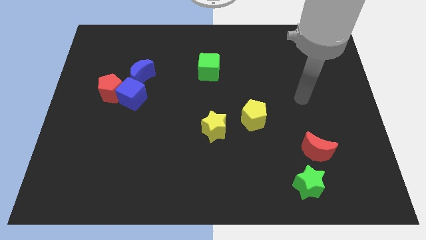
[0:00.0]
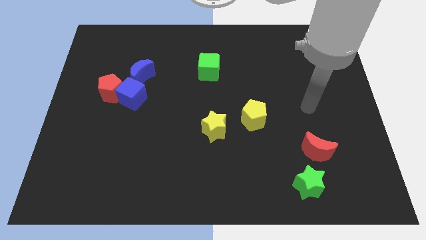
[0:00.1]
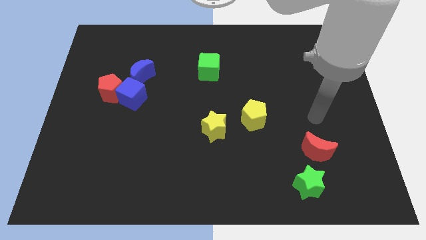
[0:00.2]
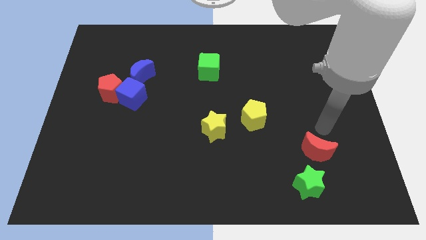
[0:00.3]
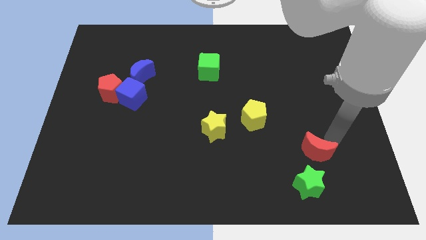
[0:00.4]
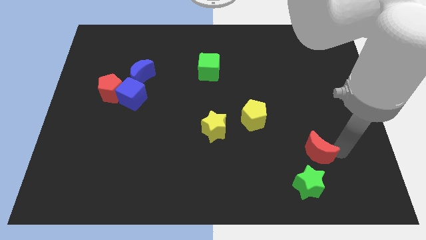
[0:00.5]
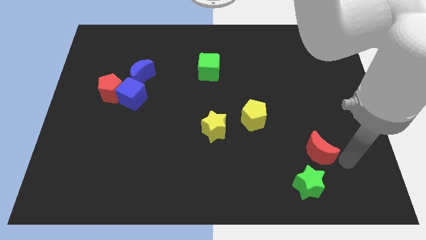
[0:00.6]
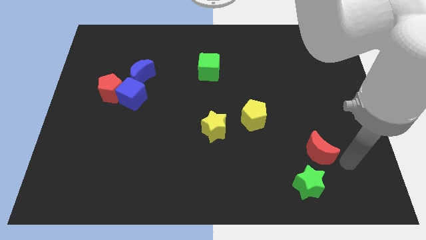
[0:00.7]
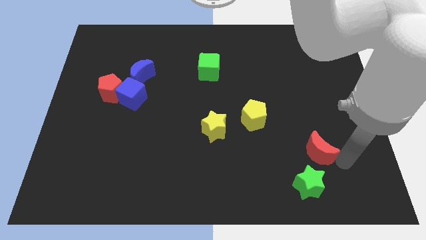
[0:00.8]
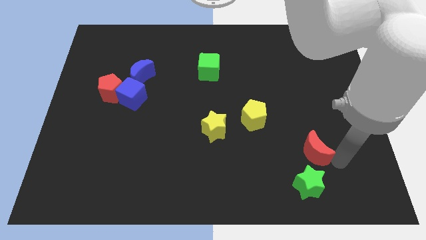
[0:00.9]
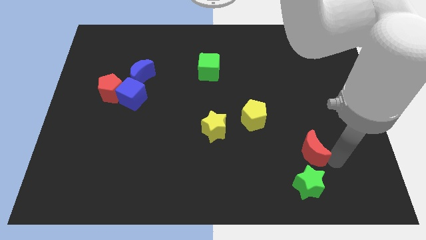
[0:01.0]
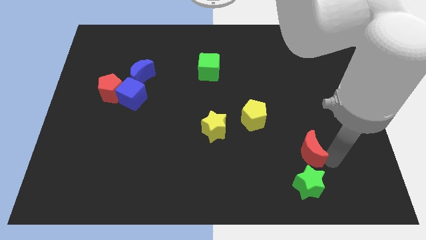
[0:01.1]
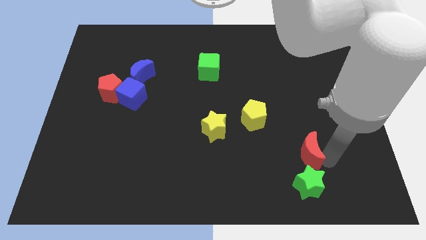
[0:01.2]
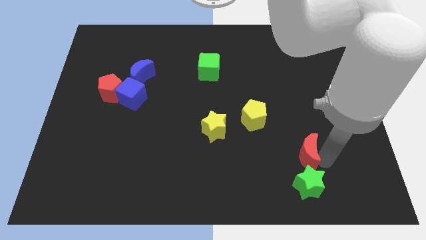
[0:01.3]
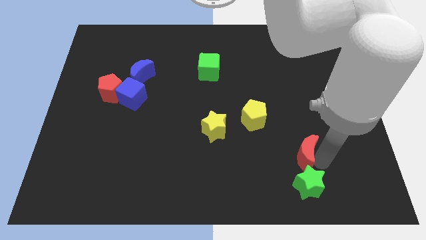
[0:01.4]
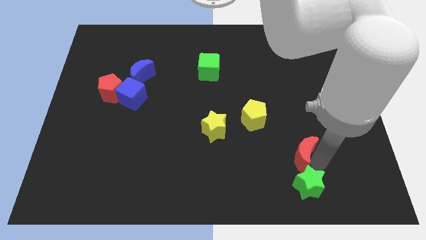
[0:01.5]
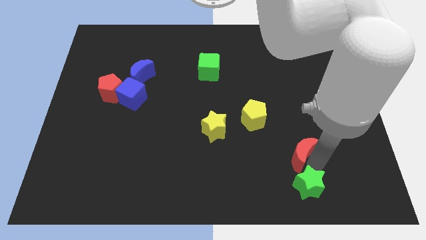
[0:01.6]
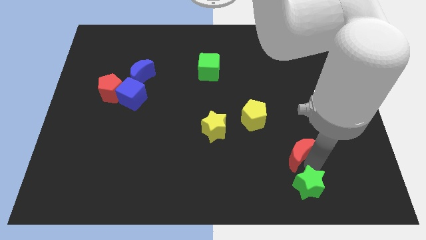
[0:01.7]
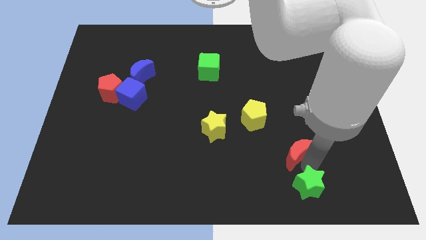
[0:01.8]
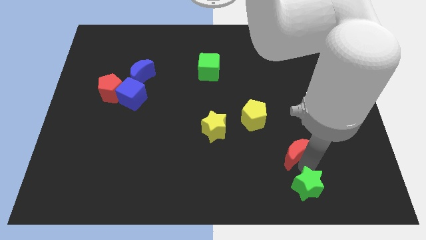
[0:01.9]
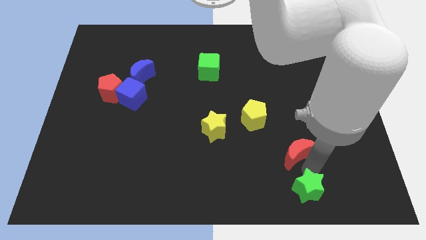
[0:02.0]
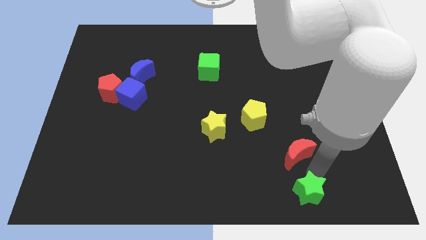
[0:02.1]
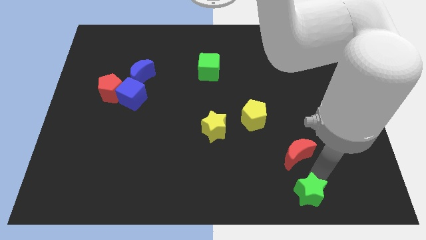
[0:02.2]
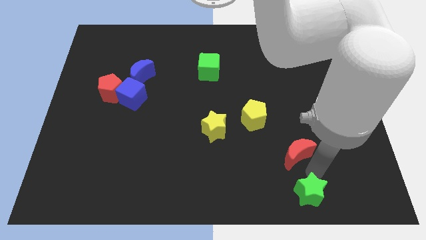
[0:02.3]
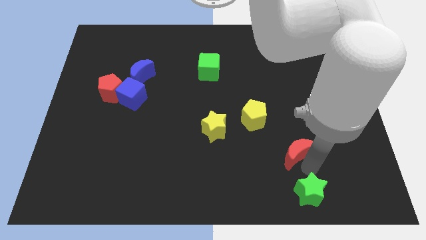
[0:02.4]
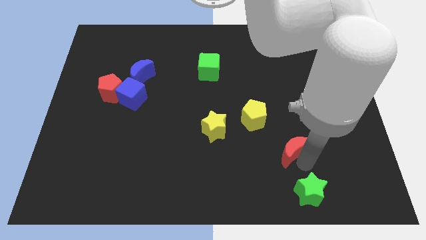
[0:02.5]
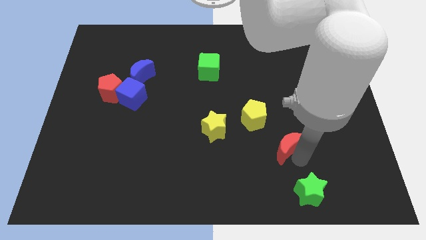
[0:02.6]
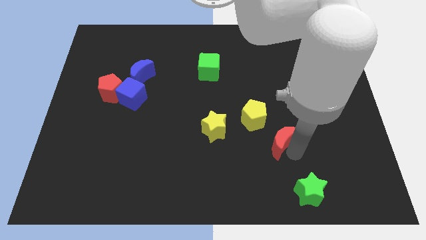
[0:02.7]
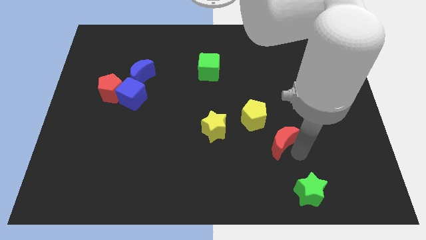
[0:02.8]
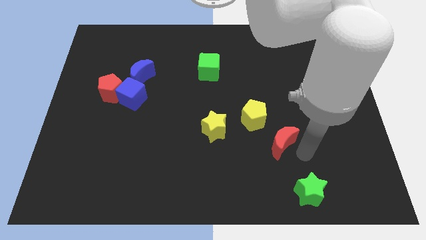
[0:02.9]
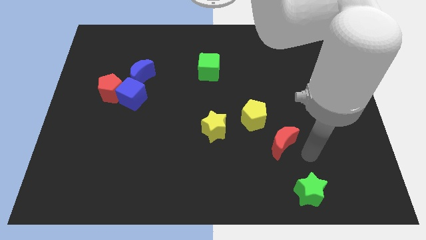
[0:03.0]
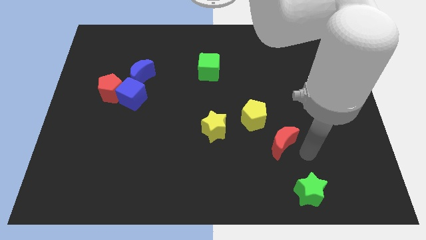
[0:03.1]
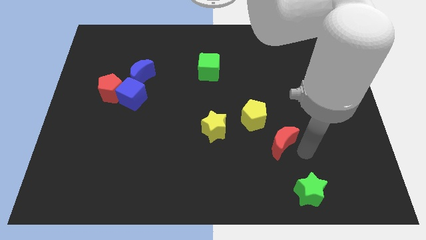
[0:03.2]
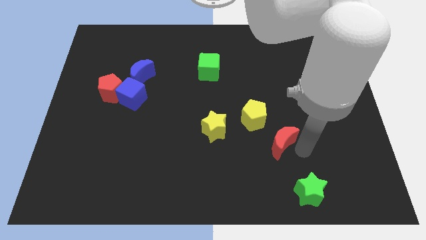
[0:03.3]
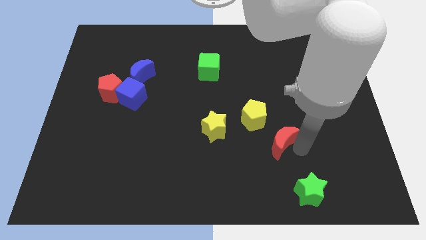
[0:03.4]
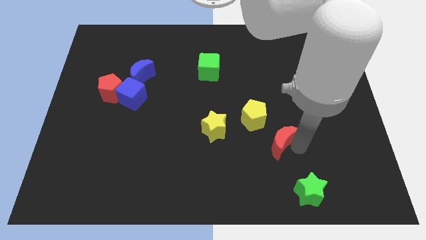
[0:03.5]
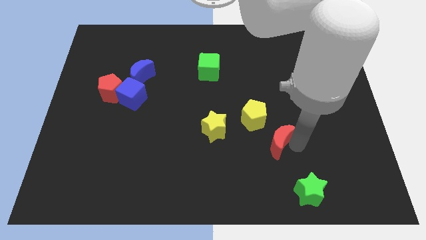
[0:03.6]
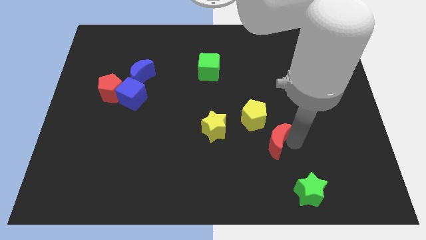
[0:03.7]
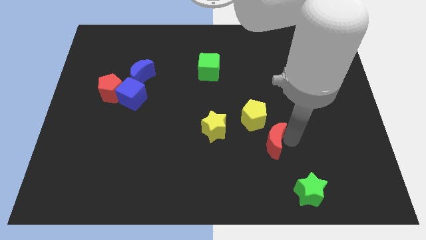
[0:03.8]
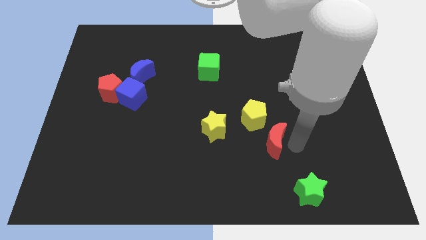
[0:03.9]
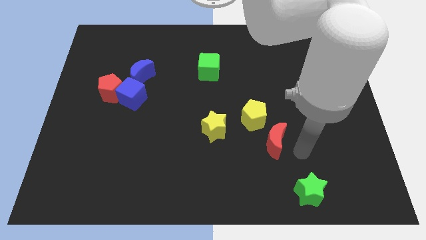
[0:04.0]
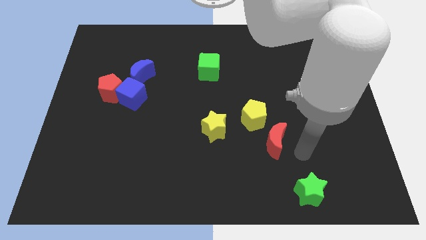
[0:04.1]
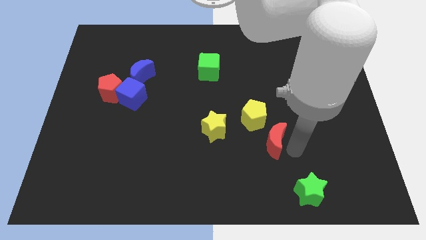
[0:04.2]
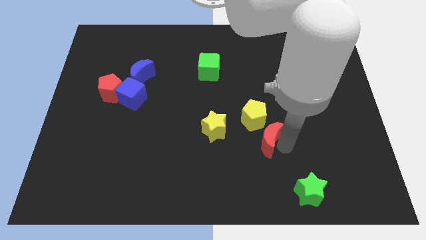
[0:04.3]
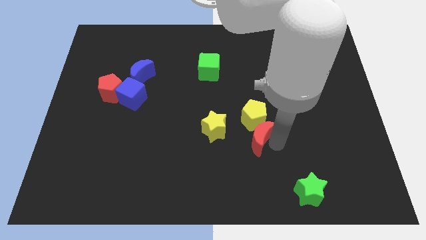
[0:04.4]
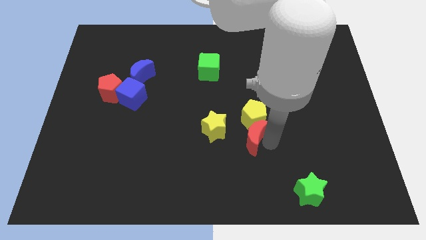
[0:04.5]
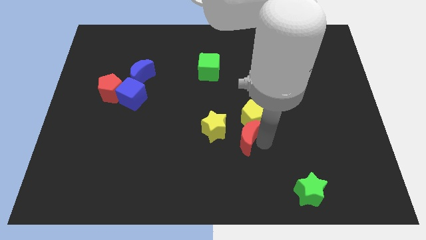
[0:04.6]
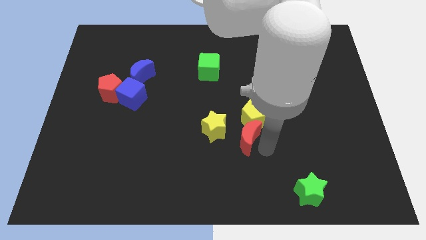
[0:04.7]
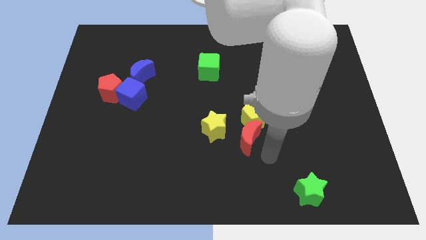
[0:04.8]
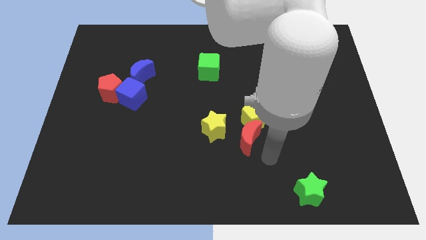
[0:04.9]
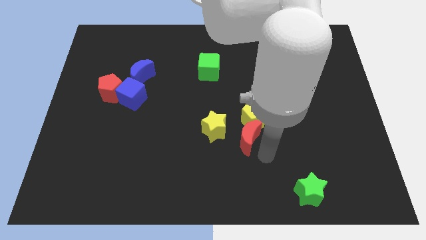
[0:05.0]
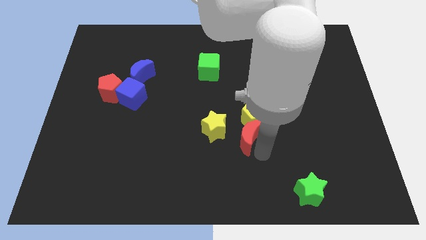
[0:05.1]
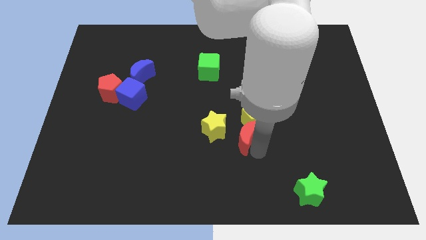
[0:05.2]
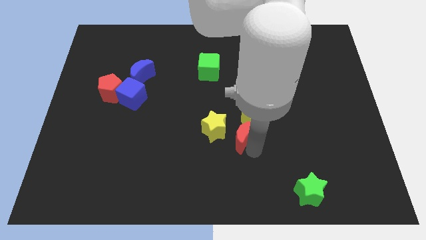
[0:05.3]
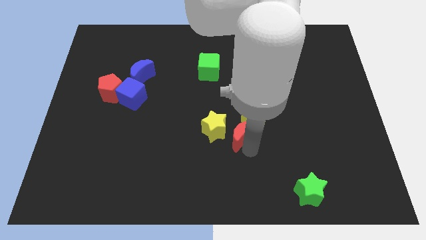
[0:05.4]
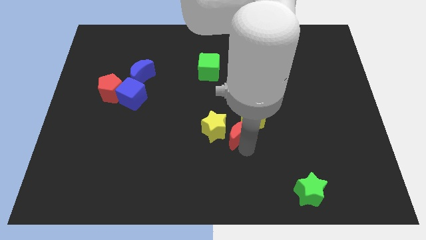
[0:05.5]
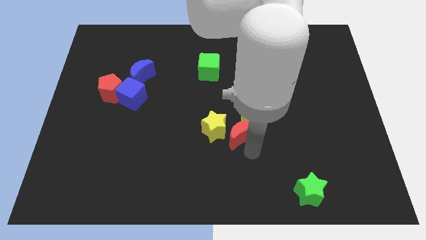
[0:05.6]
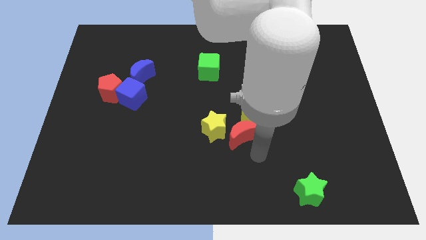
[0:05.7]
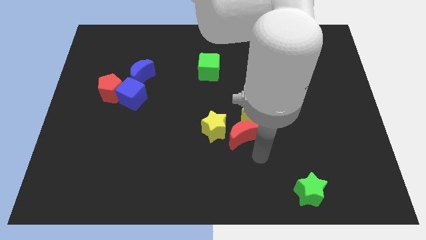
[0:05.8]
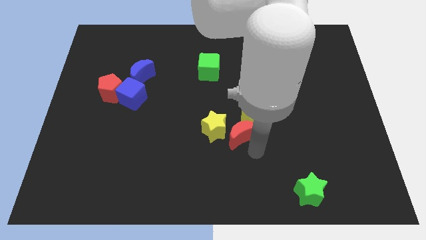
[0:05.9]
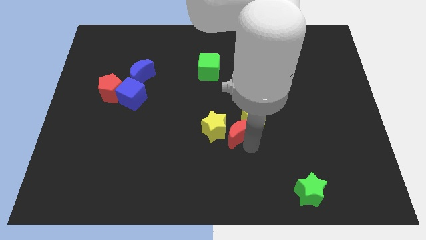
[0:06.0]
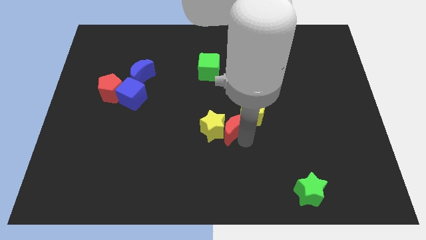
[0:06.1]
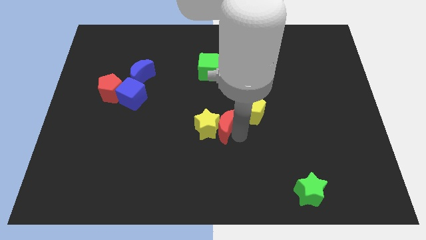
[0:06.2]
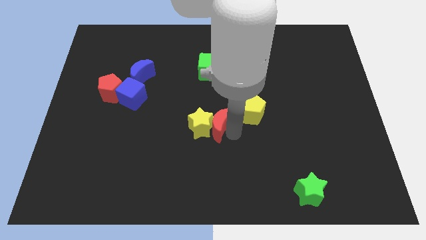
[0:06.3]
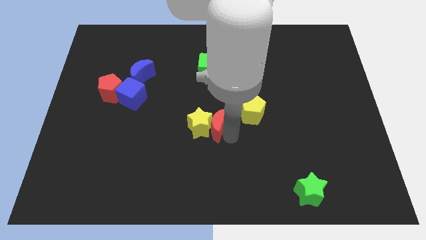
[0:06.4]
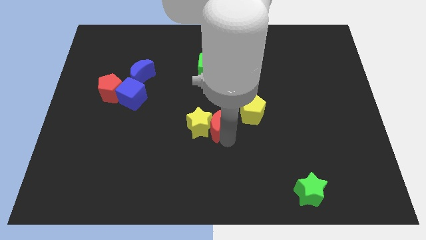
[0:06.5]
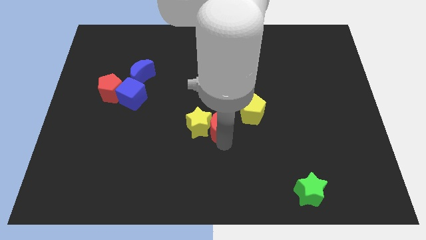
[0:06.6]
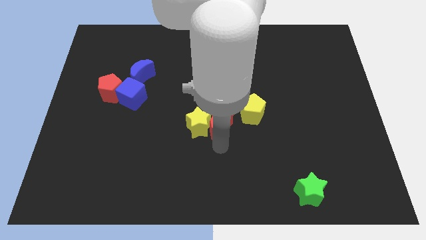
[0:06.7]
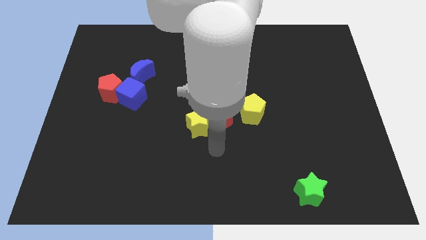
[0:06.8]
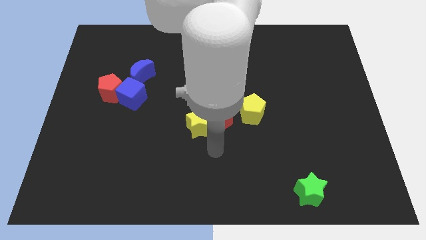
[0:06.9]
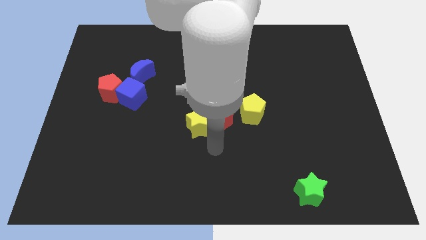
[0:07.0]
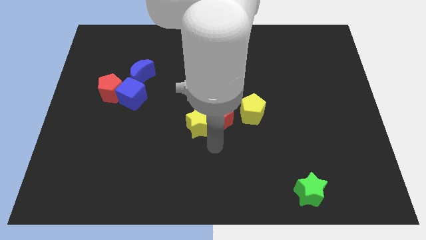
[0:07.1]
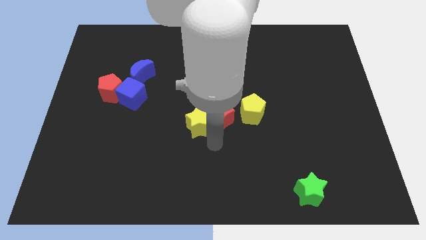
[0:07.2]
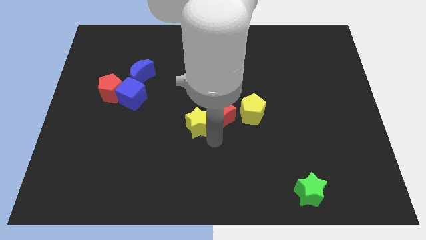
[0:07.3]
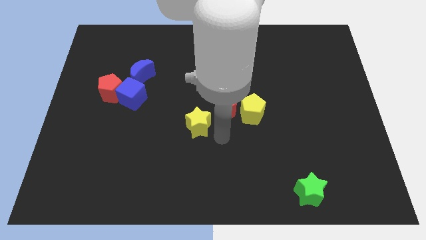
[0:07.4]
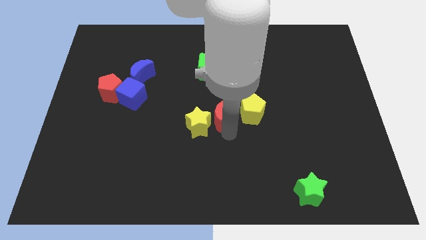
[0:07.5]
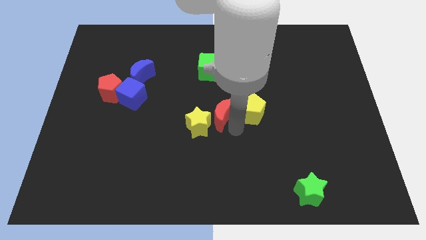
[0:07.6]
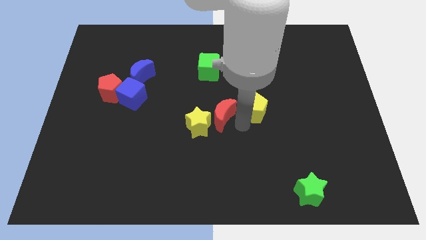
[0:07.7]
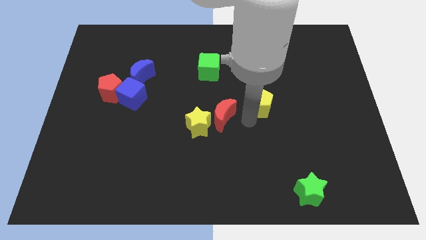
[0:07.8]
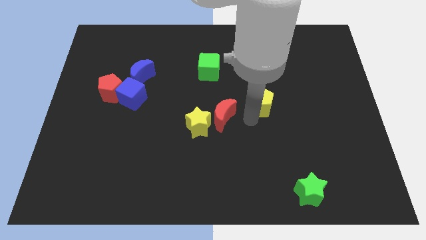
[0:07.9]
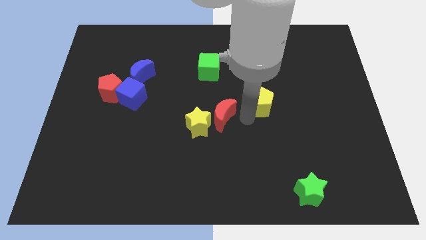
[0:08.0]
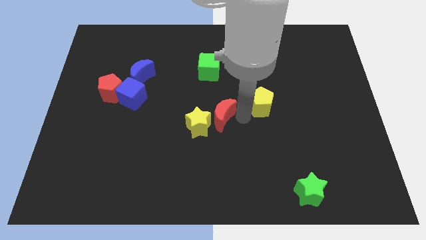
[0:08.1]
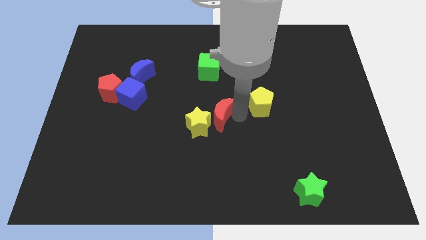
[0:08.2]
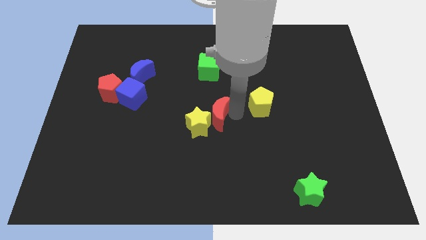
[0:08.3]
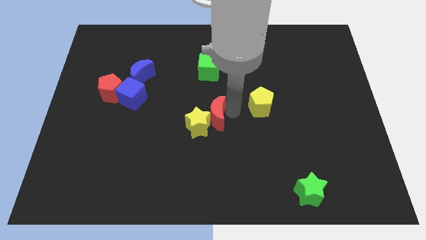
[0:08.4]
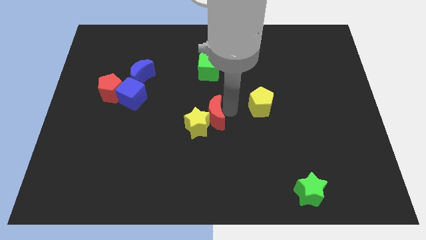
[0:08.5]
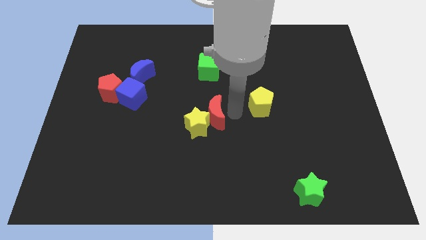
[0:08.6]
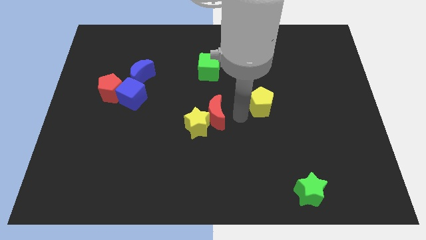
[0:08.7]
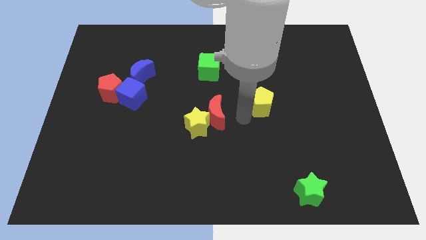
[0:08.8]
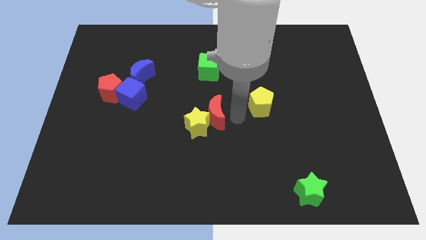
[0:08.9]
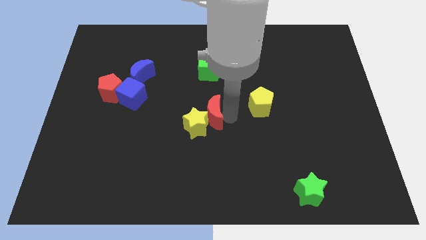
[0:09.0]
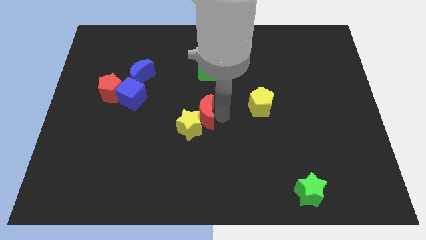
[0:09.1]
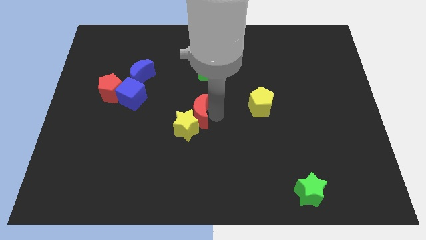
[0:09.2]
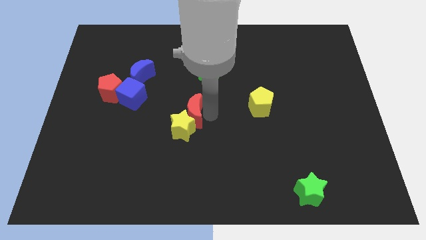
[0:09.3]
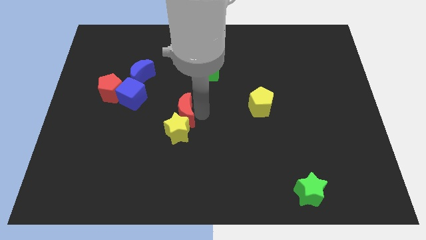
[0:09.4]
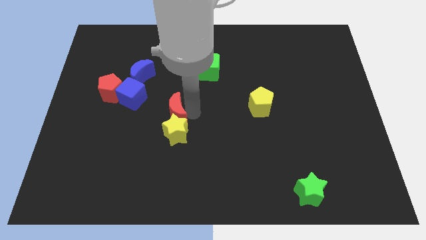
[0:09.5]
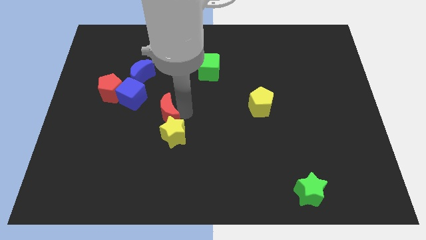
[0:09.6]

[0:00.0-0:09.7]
push the red moon to the bottom right side of the blue cube
